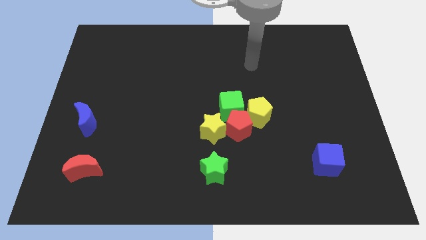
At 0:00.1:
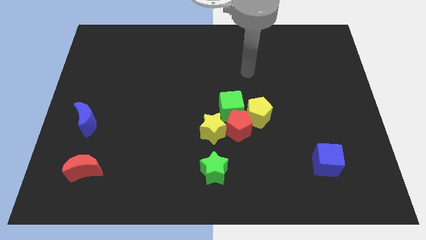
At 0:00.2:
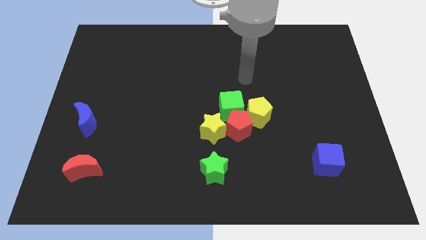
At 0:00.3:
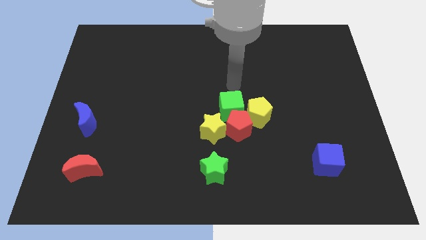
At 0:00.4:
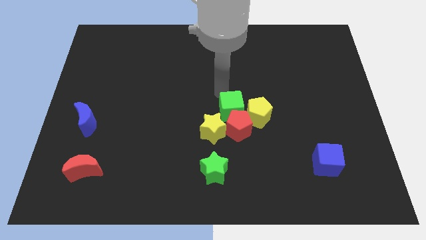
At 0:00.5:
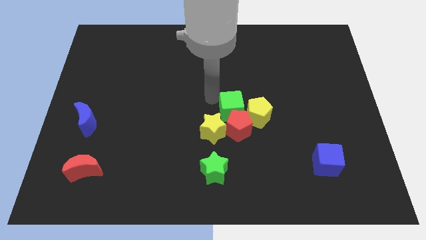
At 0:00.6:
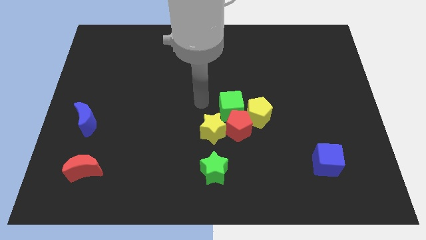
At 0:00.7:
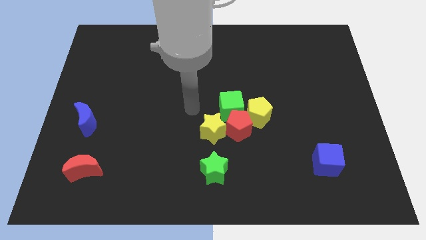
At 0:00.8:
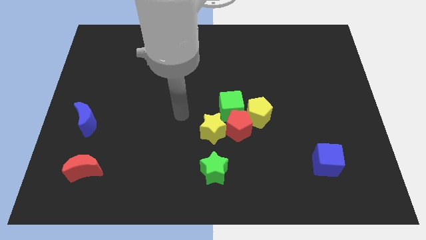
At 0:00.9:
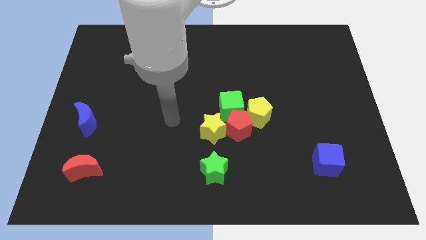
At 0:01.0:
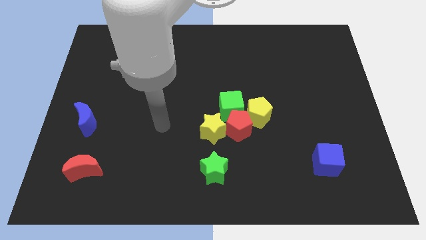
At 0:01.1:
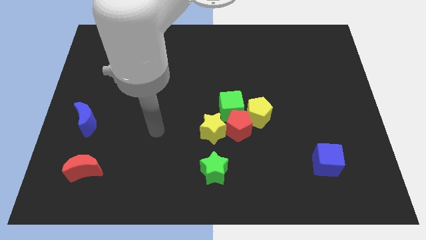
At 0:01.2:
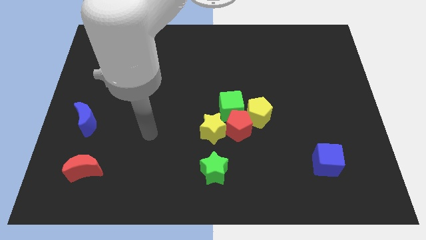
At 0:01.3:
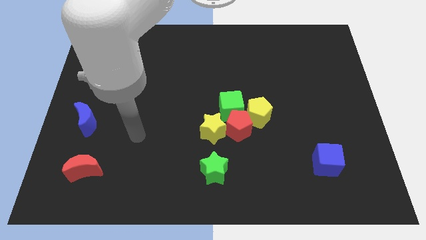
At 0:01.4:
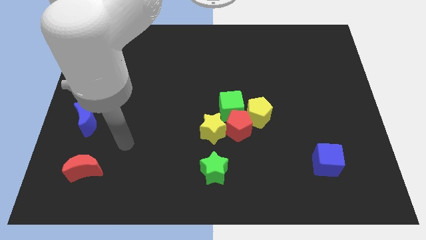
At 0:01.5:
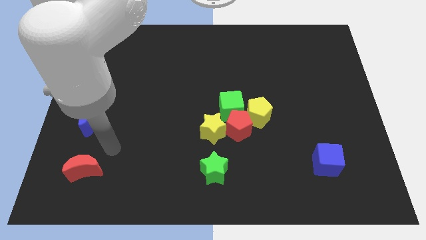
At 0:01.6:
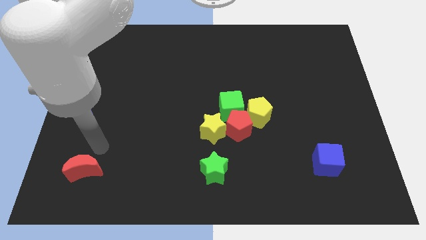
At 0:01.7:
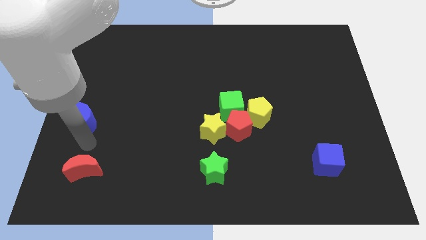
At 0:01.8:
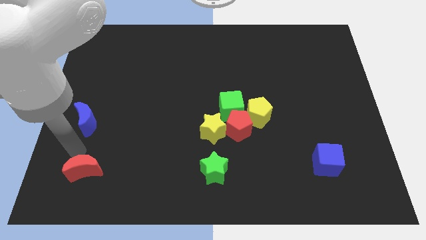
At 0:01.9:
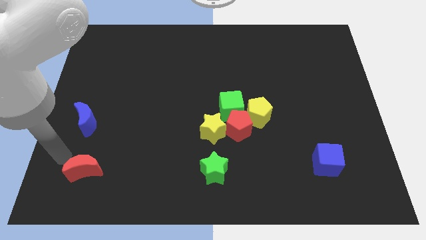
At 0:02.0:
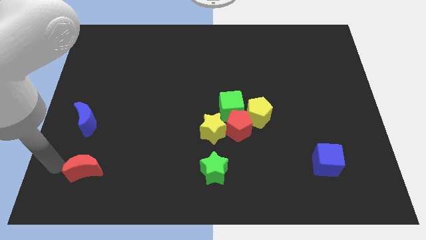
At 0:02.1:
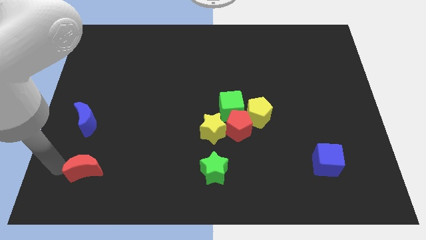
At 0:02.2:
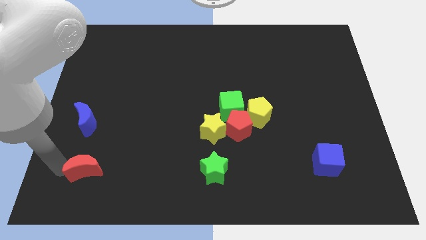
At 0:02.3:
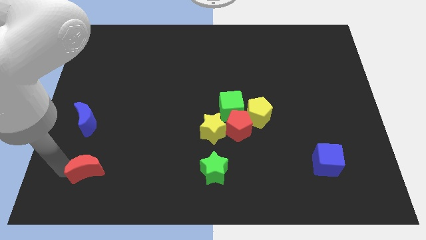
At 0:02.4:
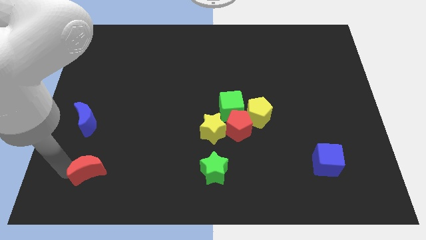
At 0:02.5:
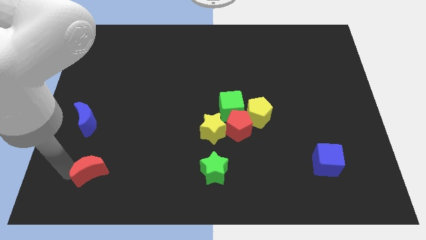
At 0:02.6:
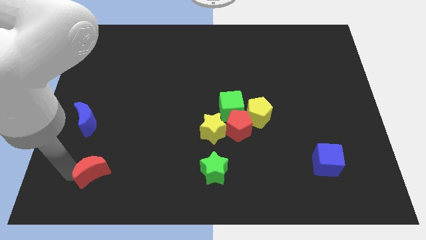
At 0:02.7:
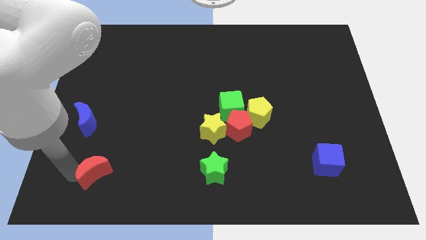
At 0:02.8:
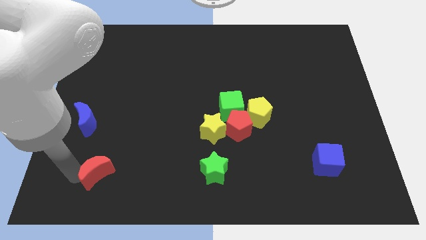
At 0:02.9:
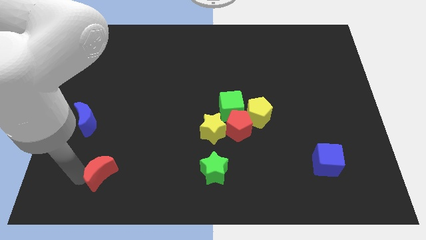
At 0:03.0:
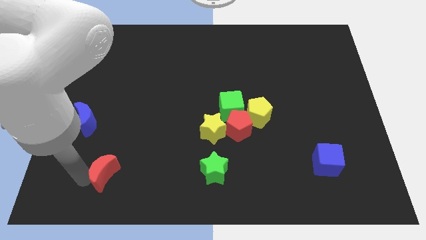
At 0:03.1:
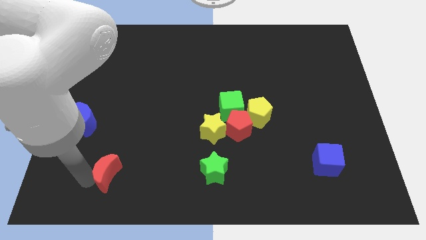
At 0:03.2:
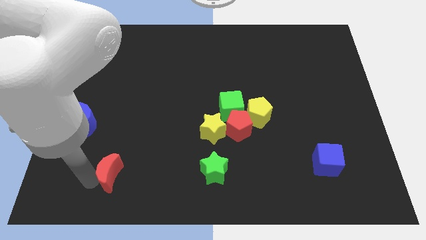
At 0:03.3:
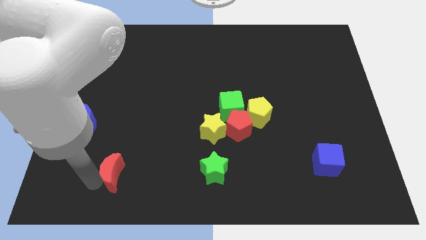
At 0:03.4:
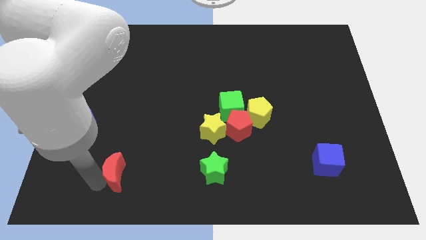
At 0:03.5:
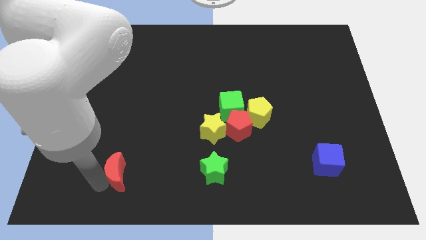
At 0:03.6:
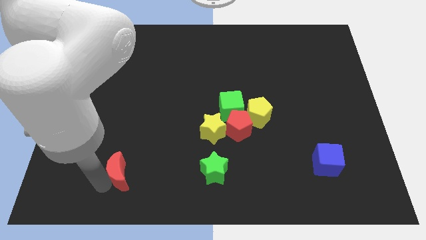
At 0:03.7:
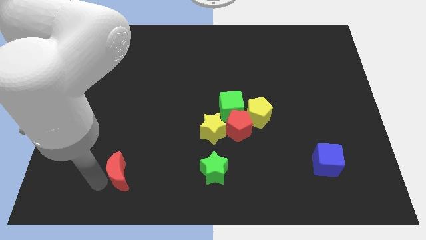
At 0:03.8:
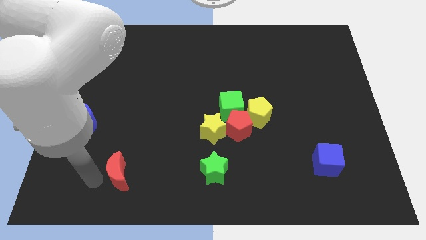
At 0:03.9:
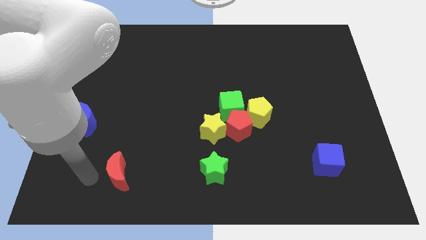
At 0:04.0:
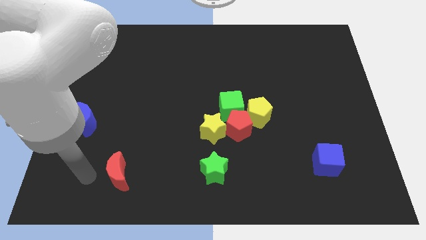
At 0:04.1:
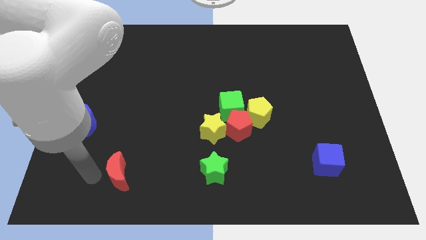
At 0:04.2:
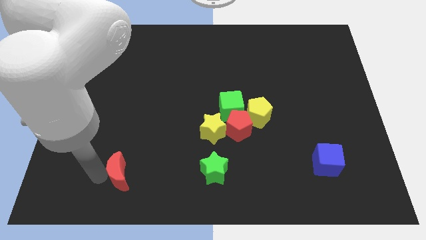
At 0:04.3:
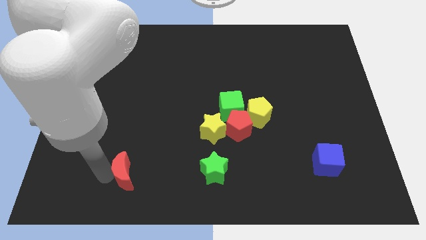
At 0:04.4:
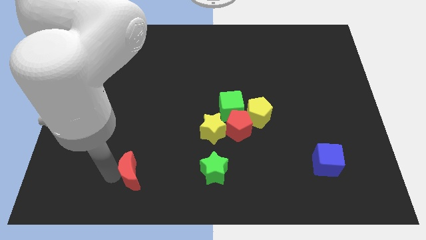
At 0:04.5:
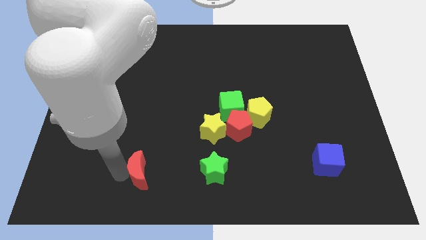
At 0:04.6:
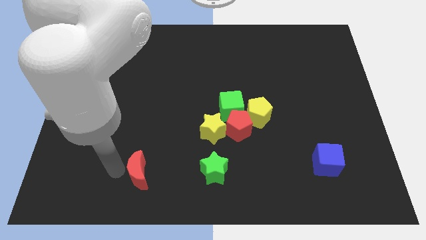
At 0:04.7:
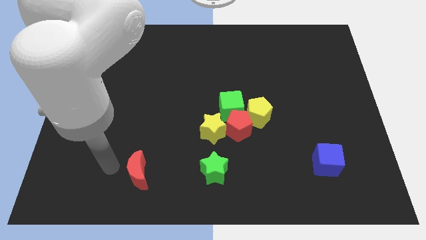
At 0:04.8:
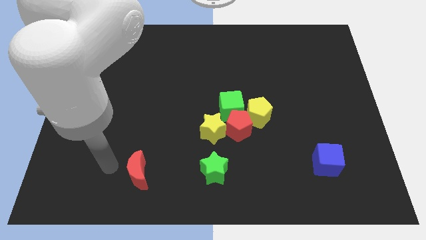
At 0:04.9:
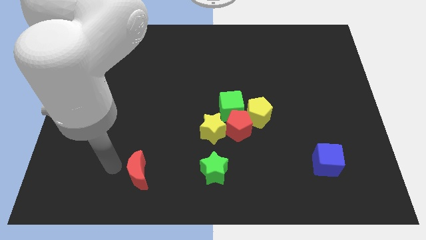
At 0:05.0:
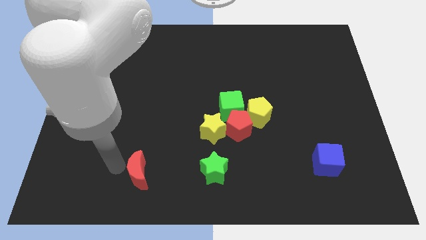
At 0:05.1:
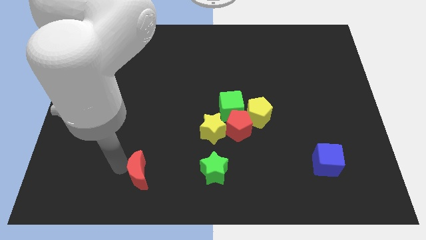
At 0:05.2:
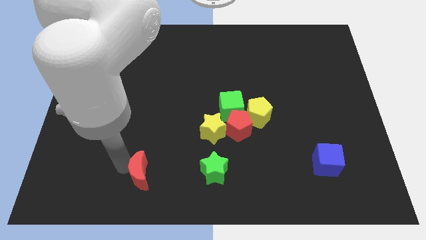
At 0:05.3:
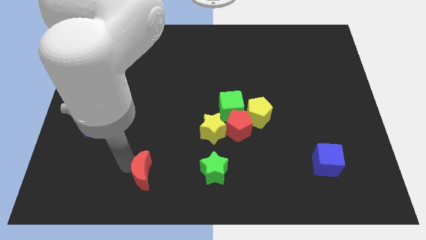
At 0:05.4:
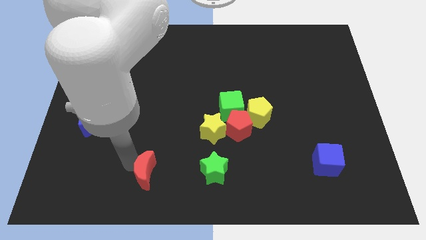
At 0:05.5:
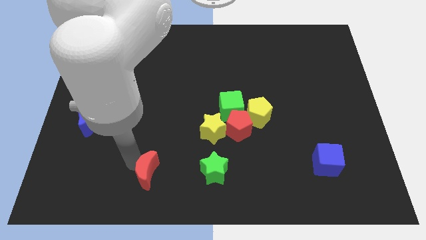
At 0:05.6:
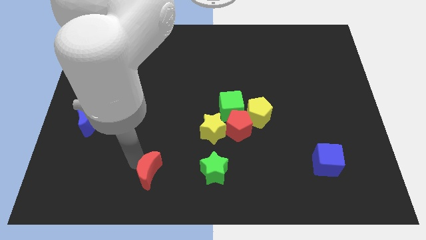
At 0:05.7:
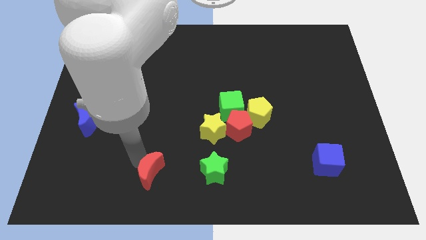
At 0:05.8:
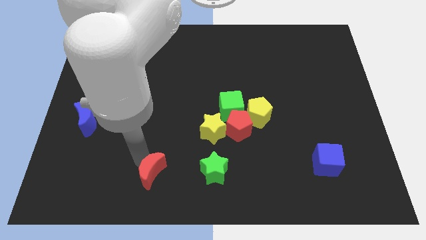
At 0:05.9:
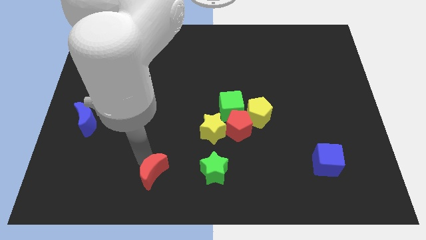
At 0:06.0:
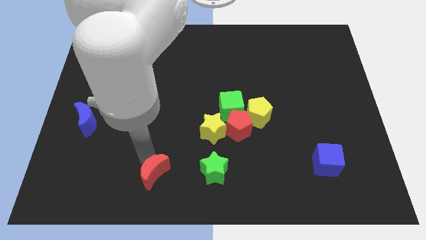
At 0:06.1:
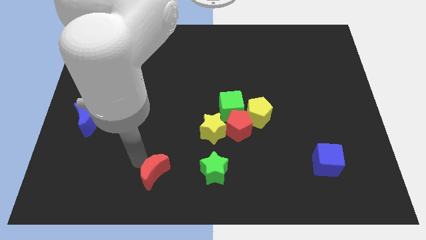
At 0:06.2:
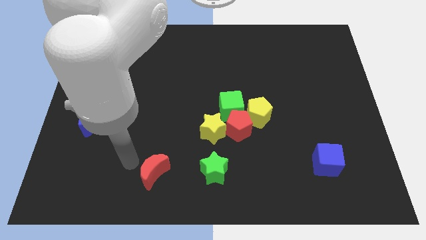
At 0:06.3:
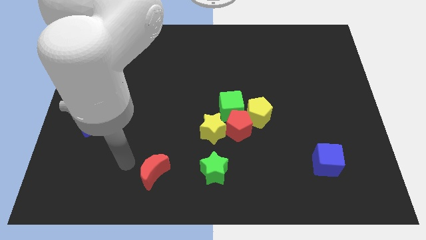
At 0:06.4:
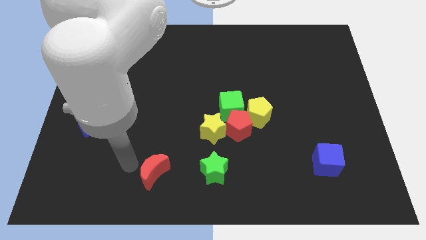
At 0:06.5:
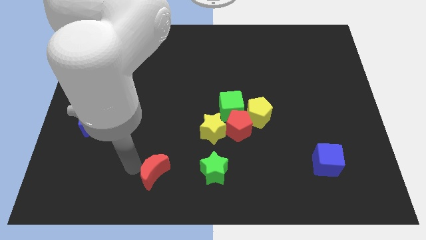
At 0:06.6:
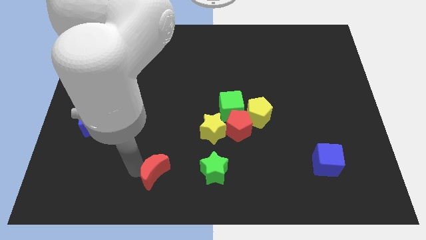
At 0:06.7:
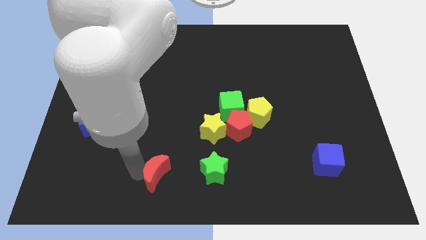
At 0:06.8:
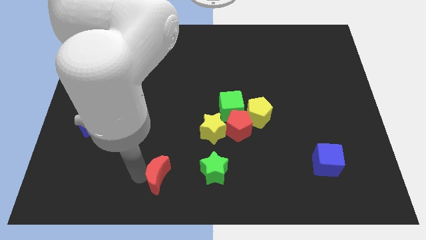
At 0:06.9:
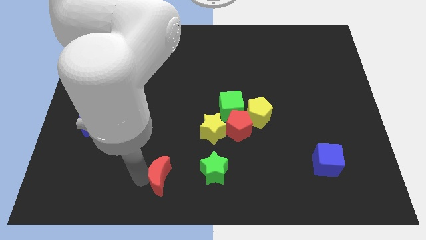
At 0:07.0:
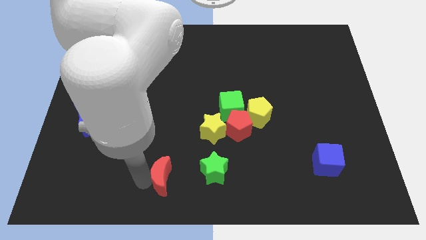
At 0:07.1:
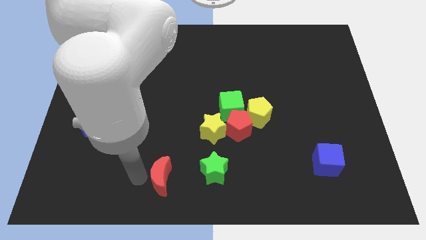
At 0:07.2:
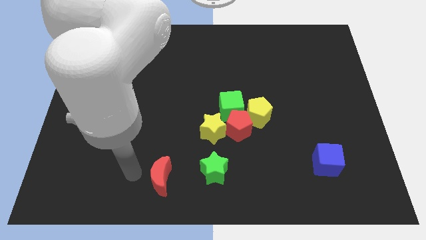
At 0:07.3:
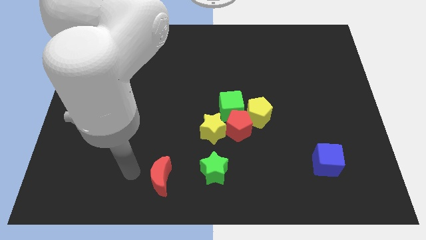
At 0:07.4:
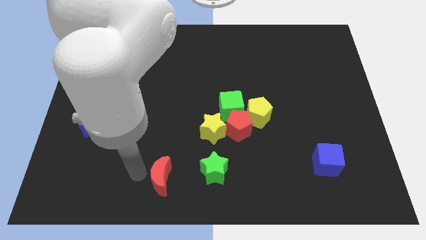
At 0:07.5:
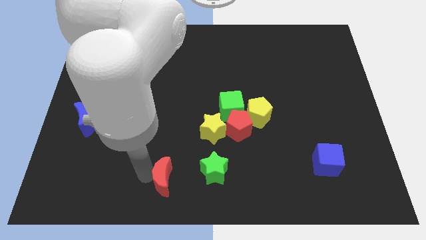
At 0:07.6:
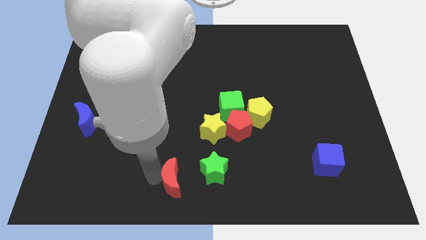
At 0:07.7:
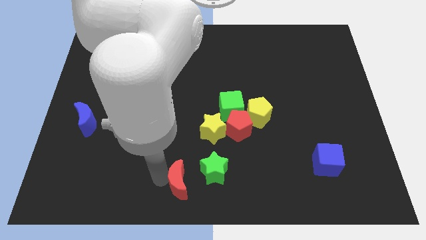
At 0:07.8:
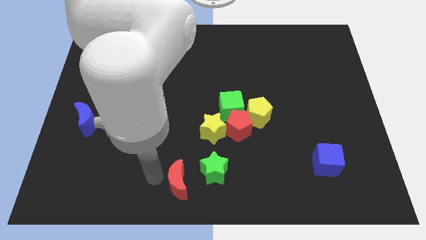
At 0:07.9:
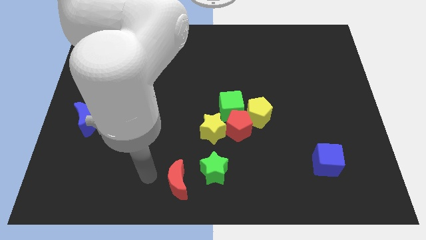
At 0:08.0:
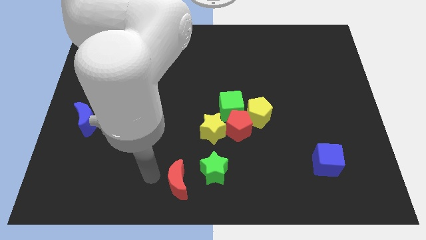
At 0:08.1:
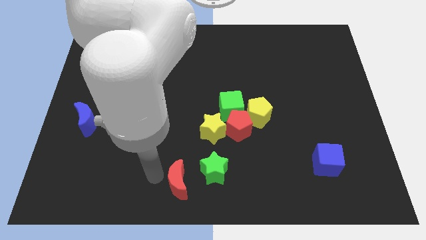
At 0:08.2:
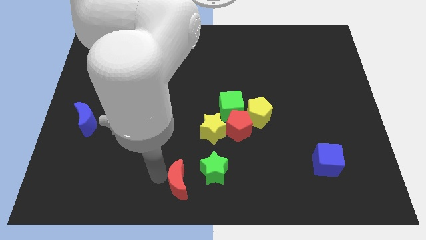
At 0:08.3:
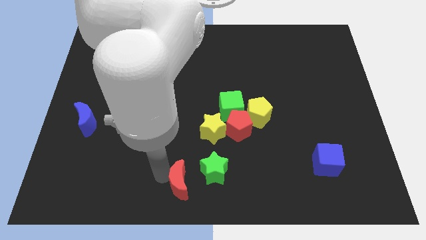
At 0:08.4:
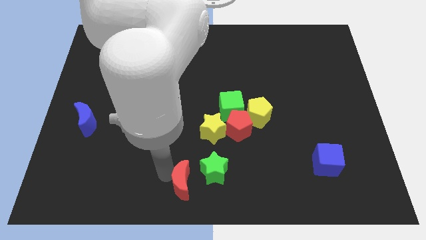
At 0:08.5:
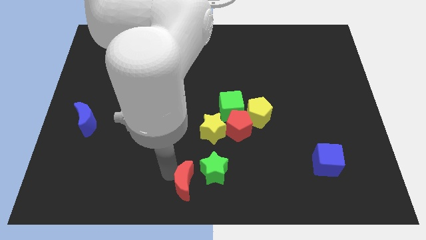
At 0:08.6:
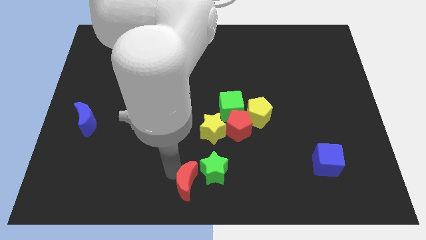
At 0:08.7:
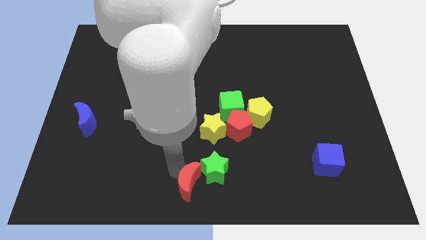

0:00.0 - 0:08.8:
push the red moon to the bottom of the yellow star
